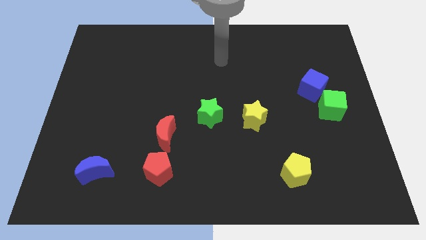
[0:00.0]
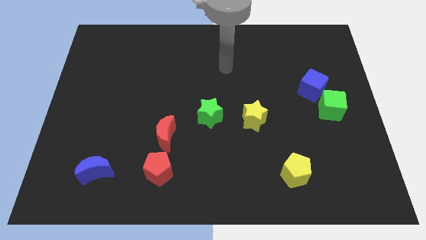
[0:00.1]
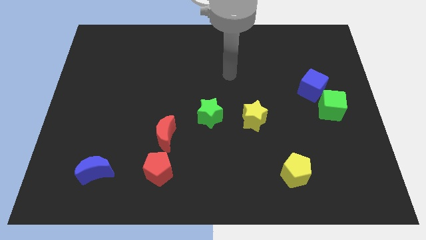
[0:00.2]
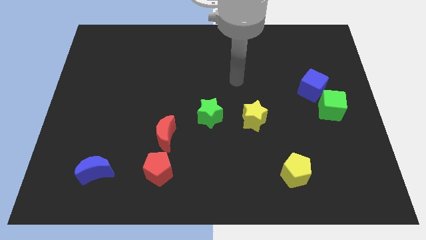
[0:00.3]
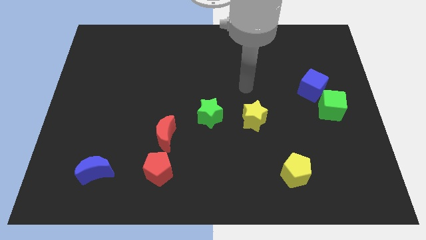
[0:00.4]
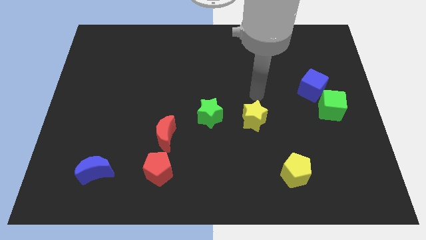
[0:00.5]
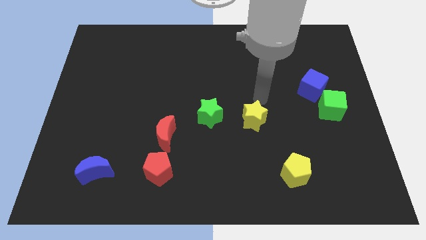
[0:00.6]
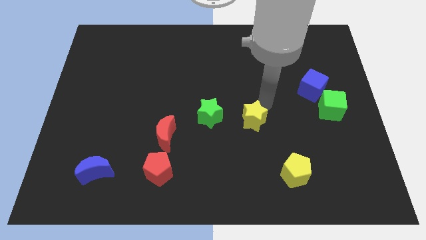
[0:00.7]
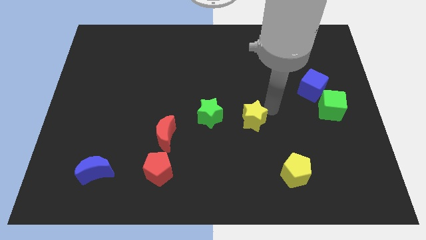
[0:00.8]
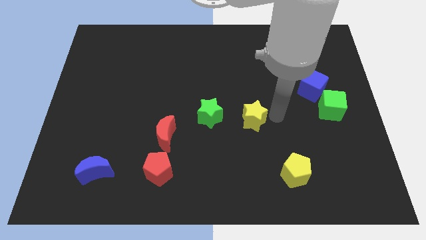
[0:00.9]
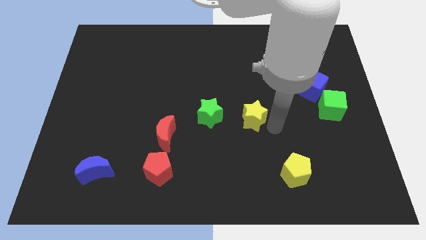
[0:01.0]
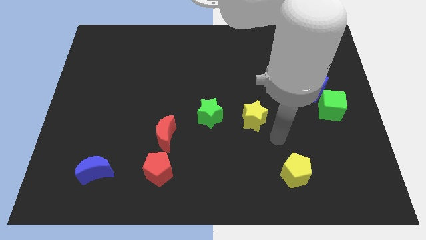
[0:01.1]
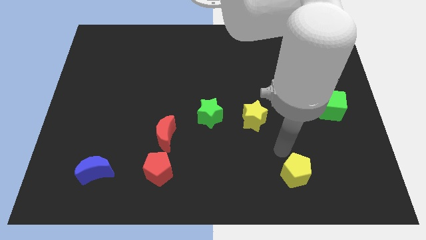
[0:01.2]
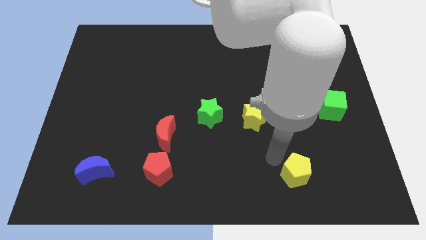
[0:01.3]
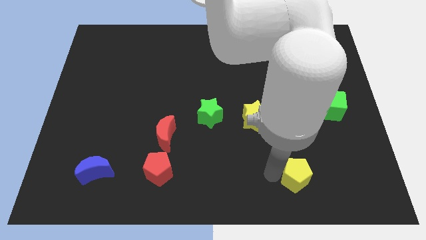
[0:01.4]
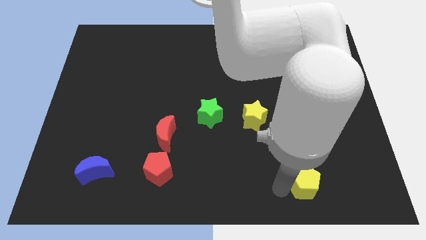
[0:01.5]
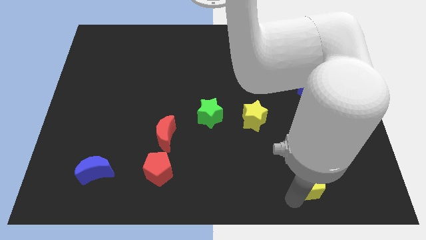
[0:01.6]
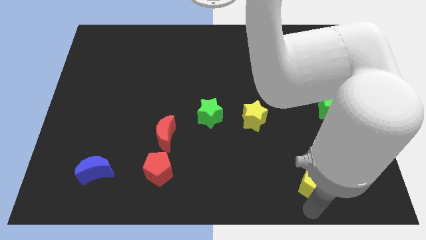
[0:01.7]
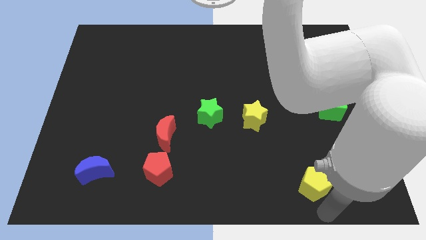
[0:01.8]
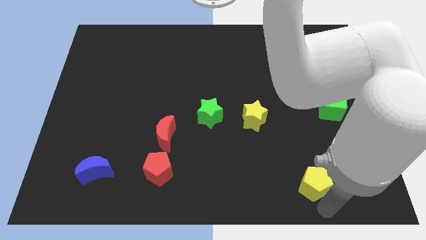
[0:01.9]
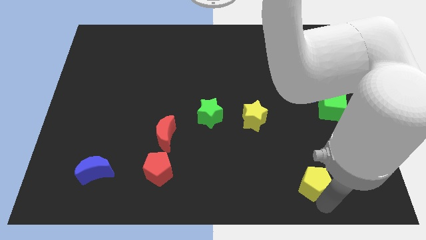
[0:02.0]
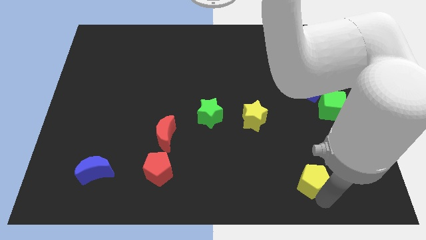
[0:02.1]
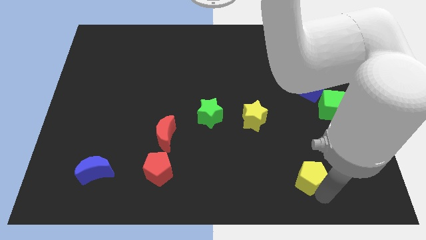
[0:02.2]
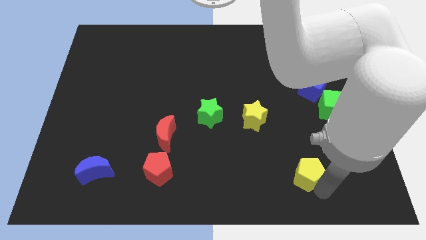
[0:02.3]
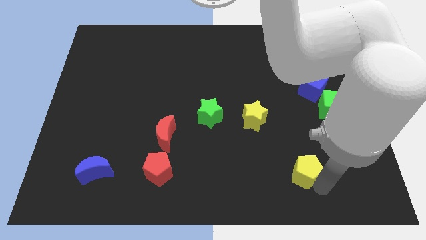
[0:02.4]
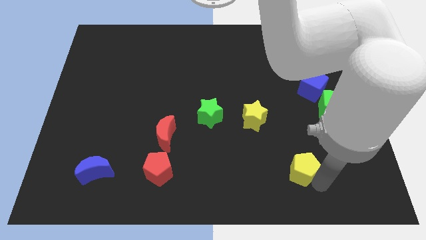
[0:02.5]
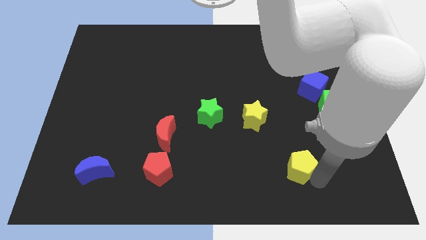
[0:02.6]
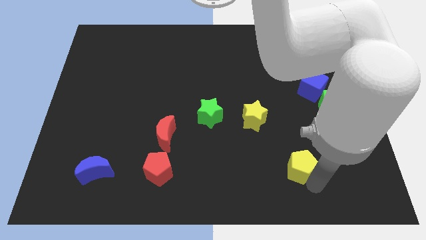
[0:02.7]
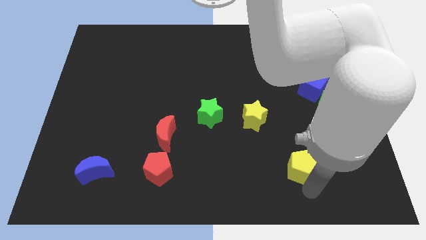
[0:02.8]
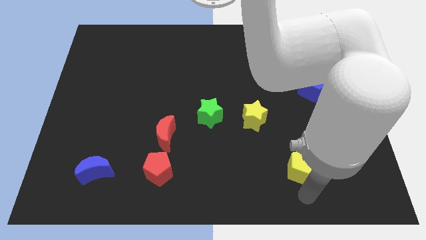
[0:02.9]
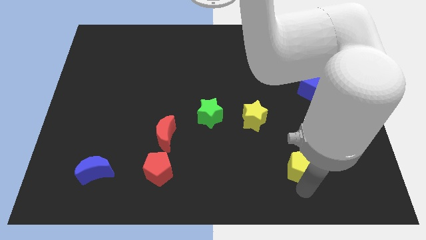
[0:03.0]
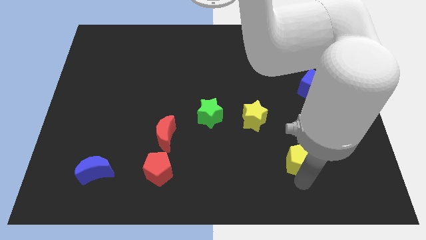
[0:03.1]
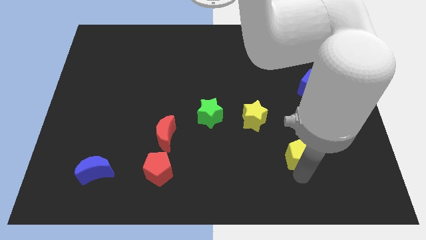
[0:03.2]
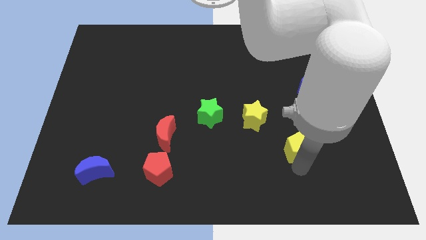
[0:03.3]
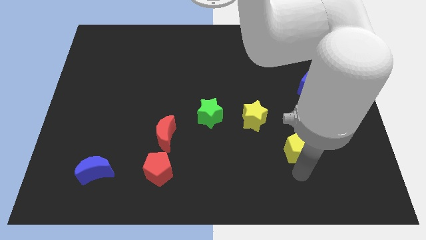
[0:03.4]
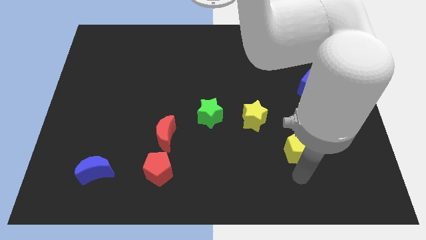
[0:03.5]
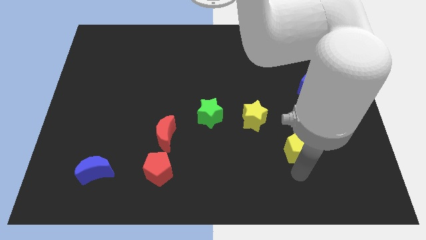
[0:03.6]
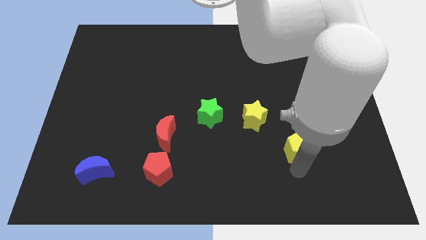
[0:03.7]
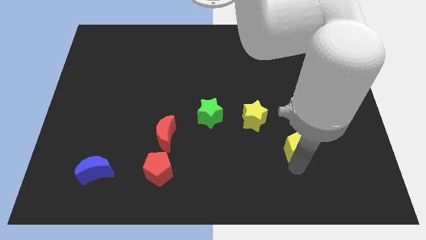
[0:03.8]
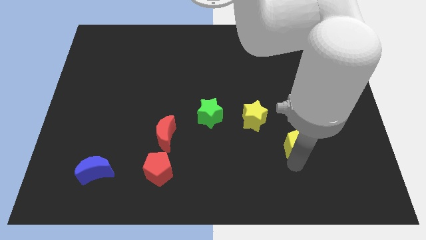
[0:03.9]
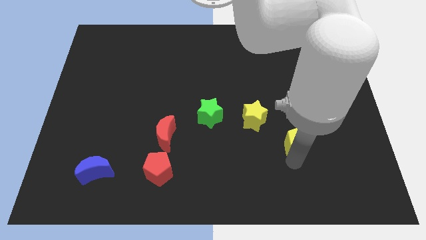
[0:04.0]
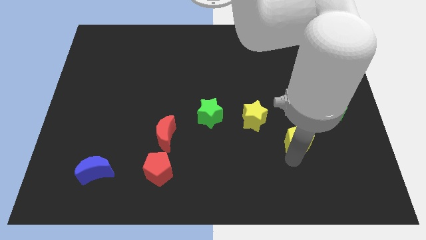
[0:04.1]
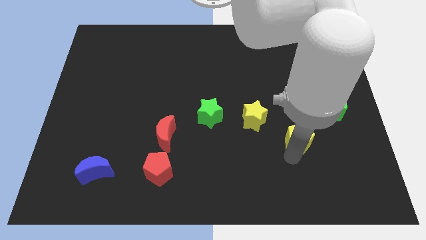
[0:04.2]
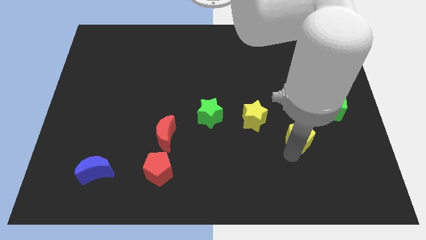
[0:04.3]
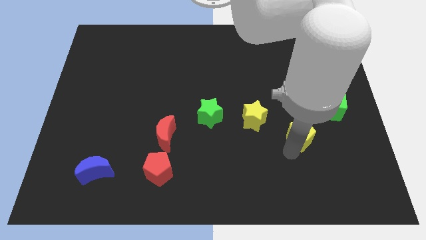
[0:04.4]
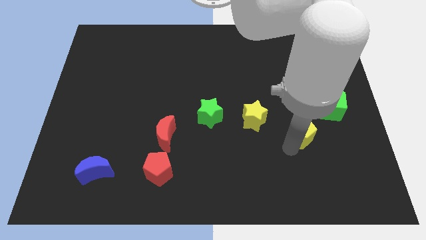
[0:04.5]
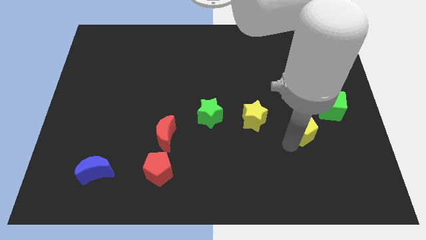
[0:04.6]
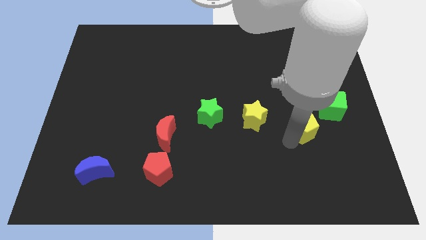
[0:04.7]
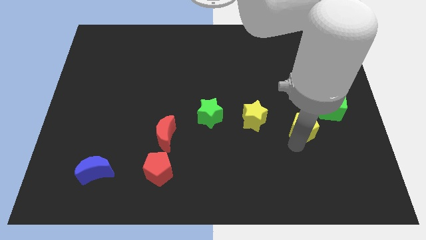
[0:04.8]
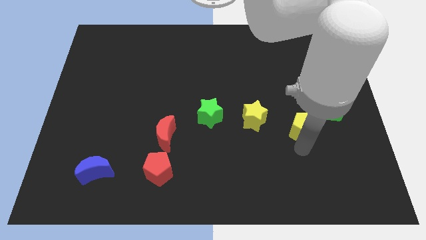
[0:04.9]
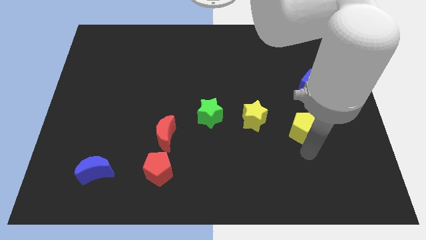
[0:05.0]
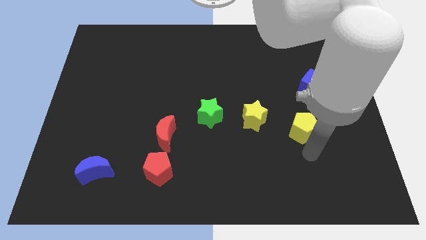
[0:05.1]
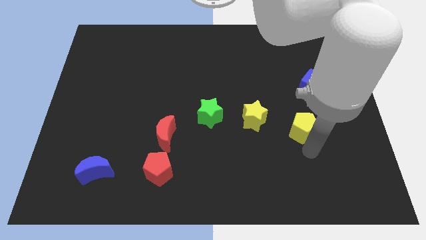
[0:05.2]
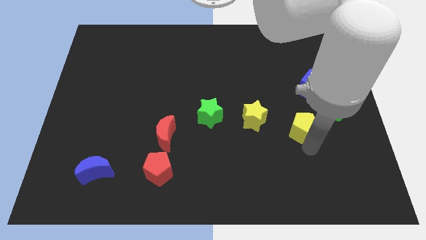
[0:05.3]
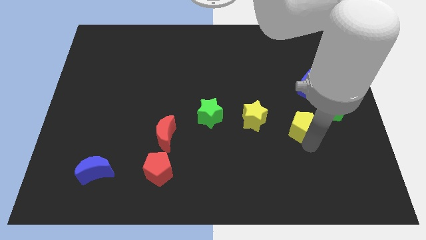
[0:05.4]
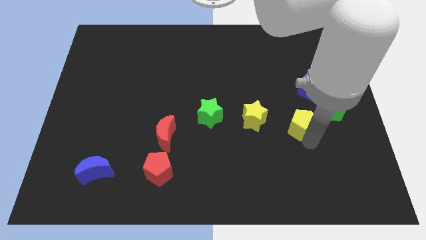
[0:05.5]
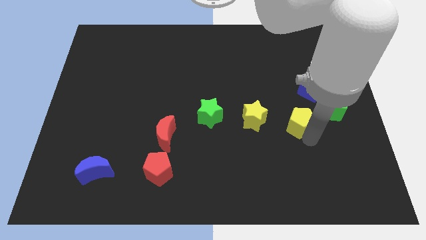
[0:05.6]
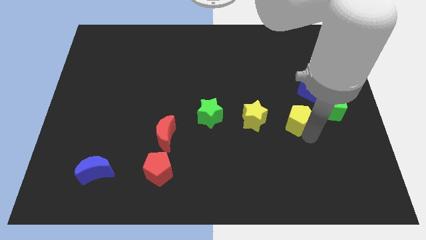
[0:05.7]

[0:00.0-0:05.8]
put the yellow pentagon diagonally down and to the left of the blue cube

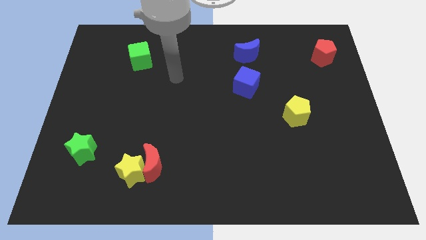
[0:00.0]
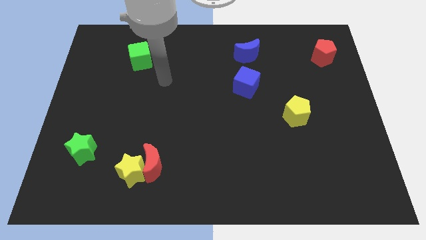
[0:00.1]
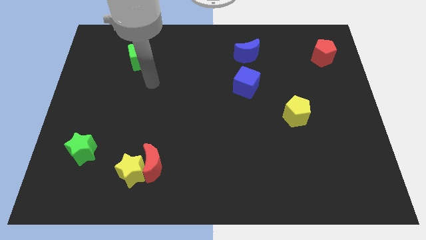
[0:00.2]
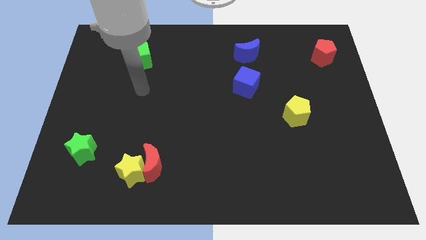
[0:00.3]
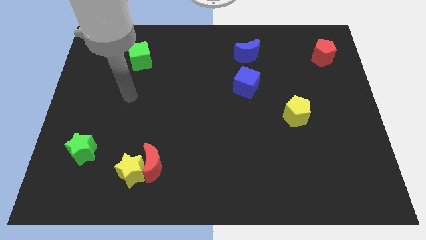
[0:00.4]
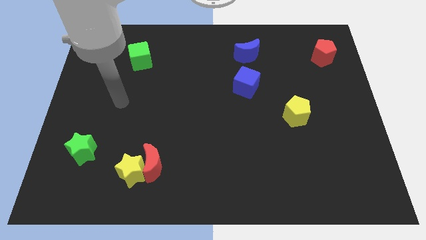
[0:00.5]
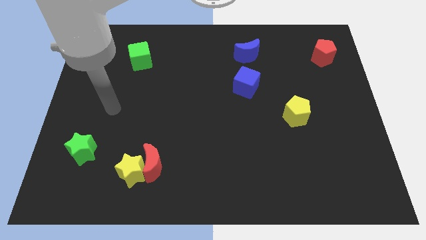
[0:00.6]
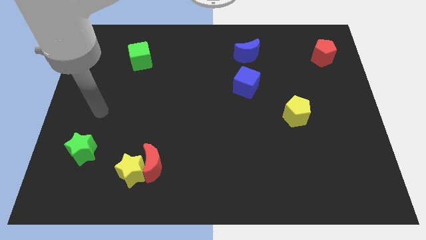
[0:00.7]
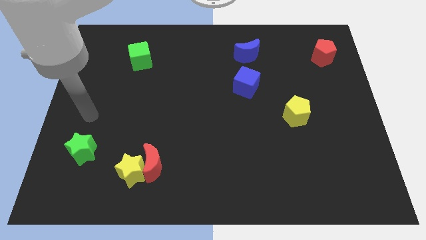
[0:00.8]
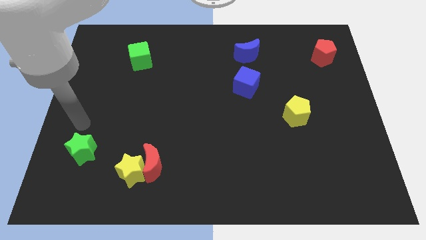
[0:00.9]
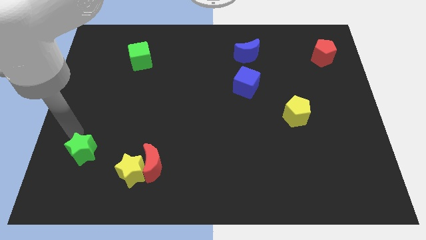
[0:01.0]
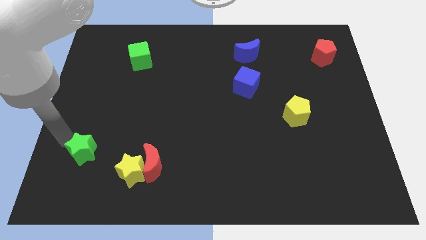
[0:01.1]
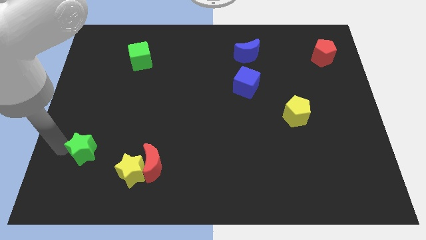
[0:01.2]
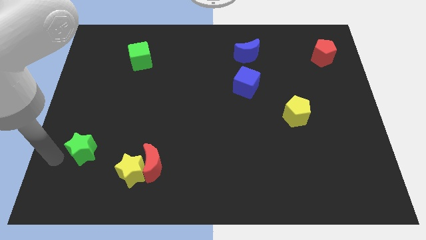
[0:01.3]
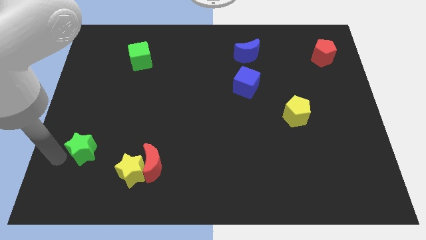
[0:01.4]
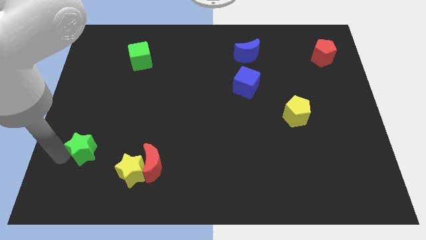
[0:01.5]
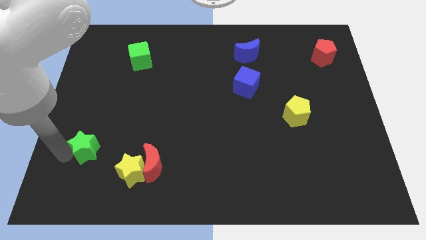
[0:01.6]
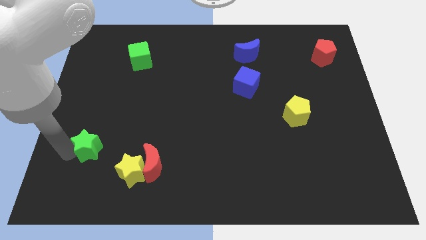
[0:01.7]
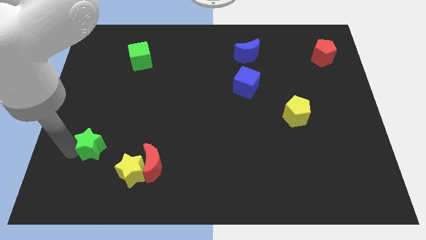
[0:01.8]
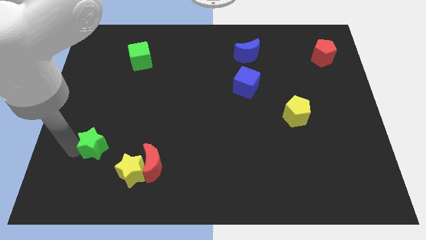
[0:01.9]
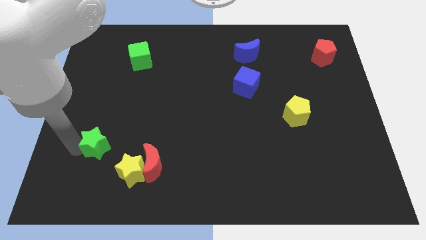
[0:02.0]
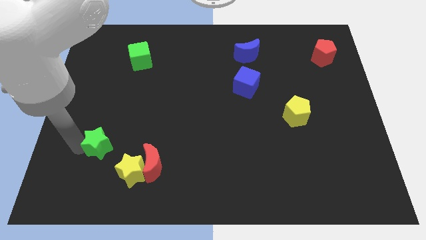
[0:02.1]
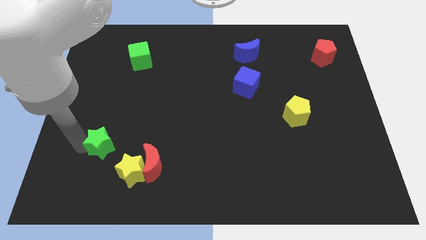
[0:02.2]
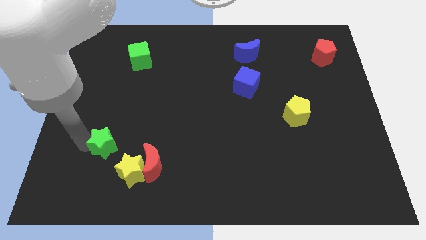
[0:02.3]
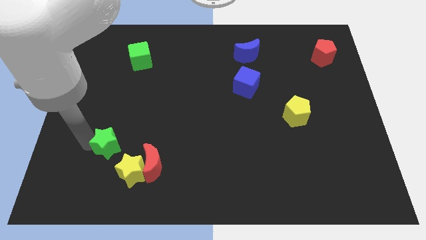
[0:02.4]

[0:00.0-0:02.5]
slide the green star to the top left side of the red moon
